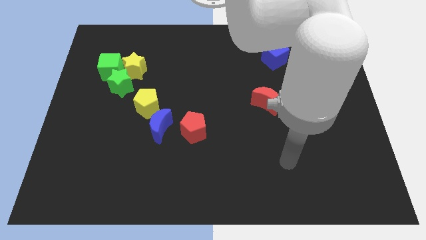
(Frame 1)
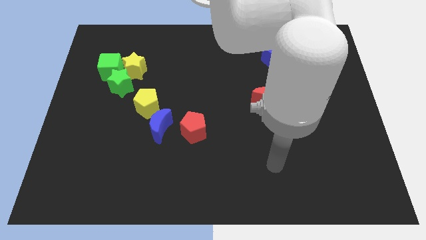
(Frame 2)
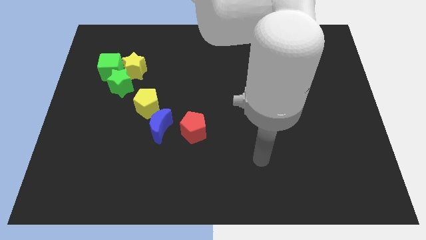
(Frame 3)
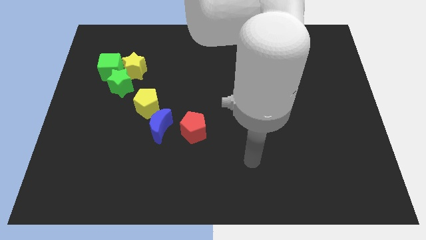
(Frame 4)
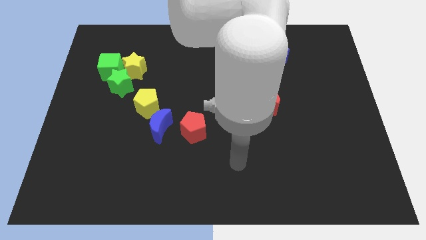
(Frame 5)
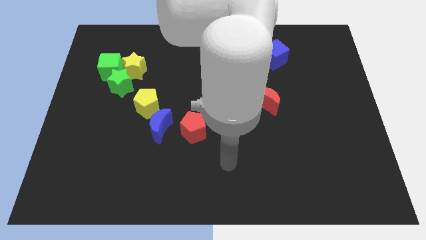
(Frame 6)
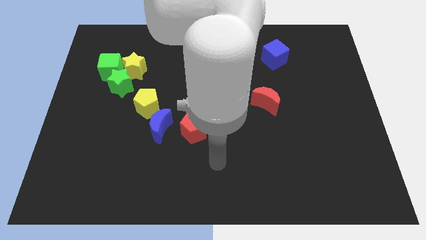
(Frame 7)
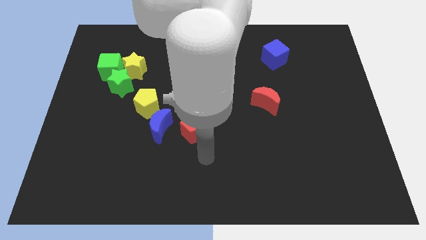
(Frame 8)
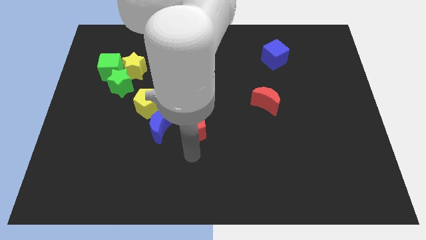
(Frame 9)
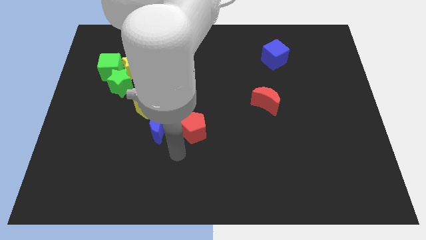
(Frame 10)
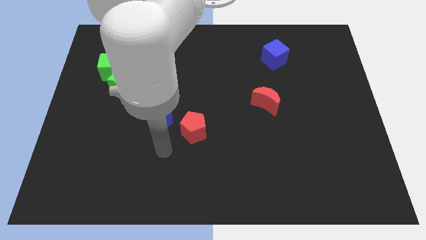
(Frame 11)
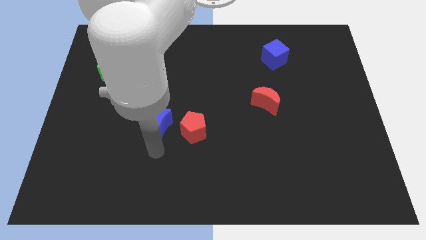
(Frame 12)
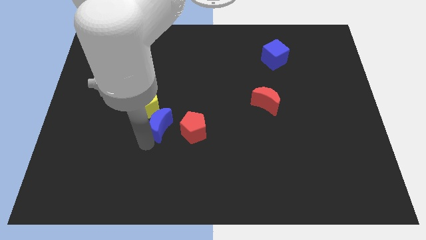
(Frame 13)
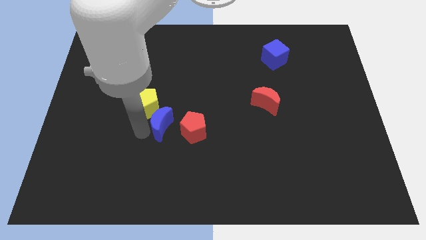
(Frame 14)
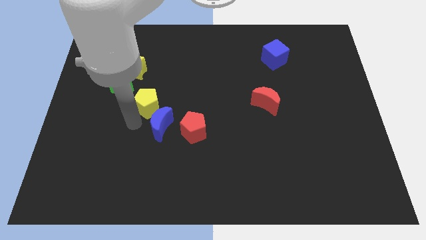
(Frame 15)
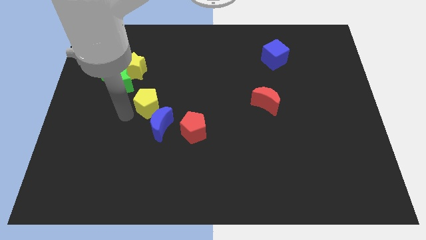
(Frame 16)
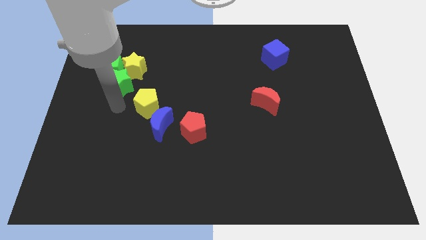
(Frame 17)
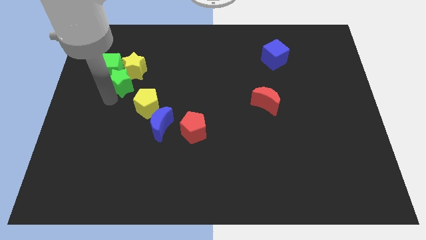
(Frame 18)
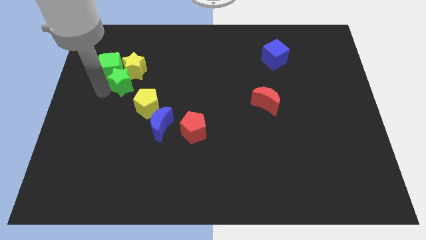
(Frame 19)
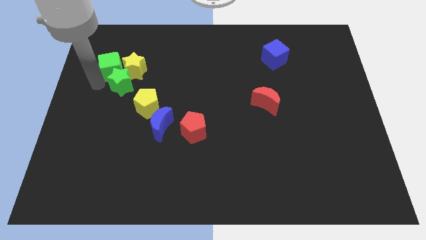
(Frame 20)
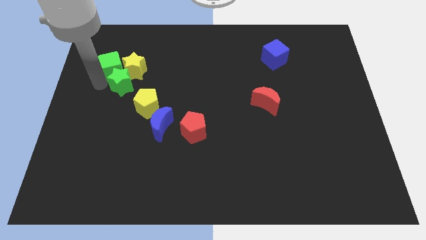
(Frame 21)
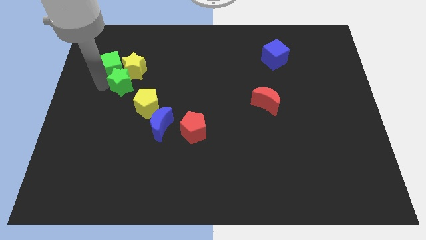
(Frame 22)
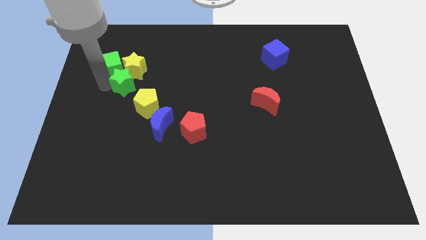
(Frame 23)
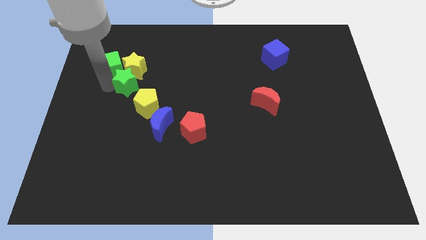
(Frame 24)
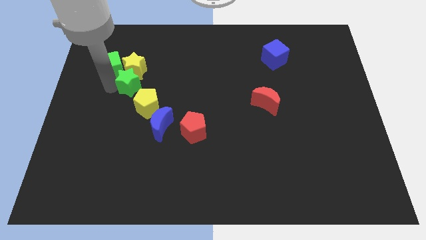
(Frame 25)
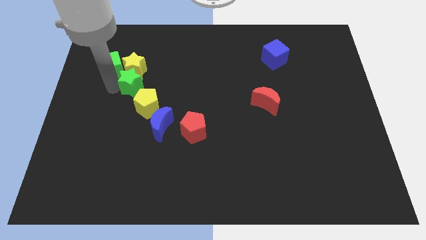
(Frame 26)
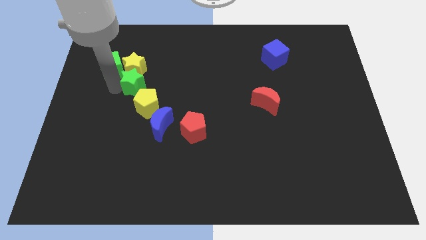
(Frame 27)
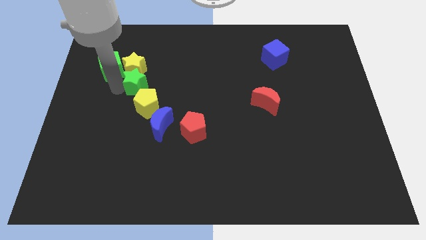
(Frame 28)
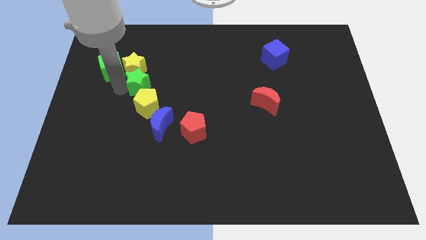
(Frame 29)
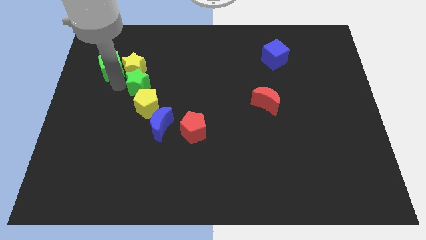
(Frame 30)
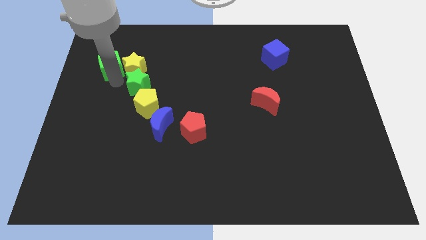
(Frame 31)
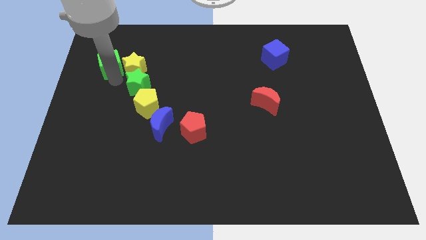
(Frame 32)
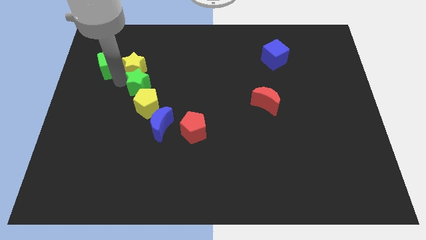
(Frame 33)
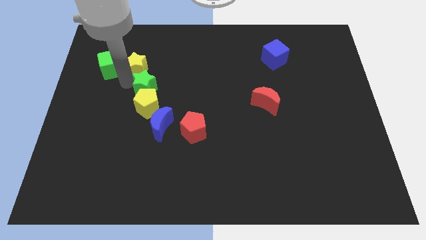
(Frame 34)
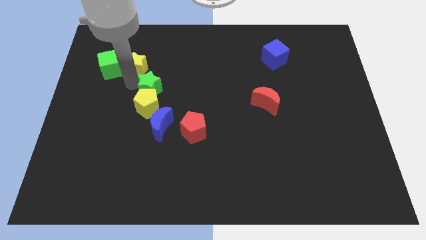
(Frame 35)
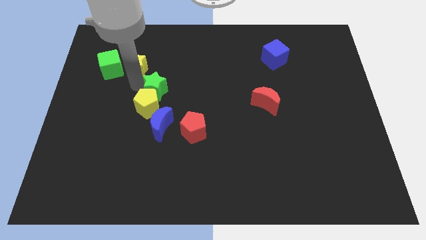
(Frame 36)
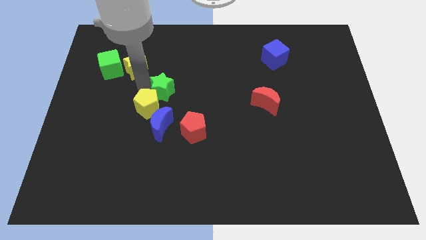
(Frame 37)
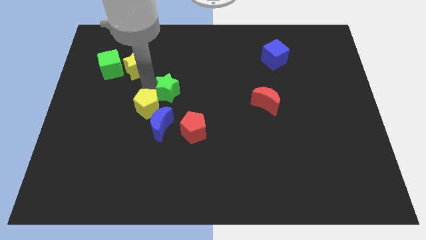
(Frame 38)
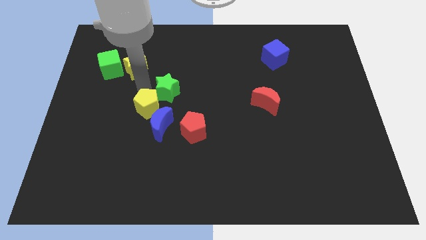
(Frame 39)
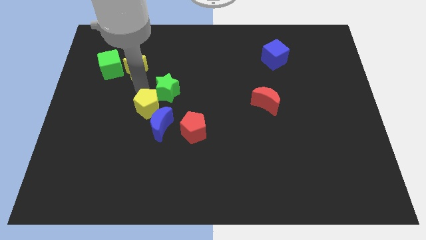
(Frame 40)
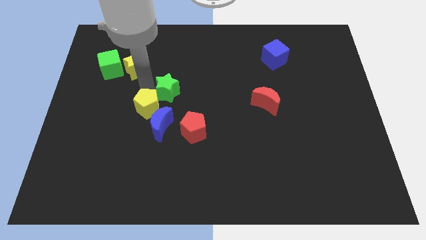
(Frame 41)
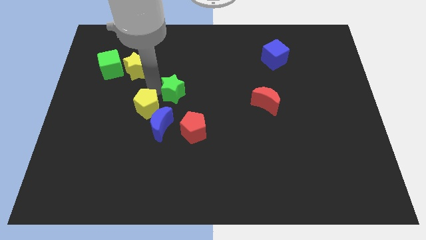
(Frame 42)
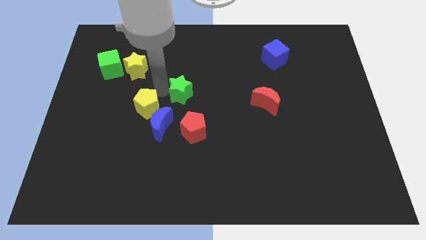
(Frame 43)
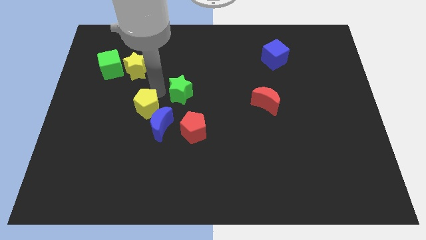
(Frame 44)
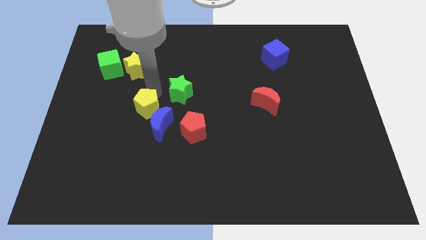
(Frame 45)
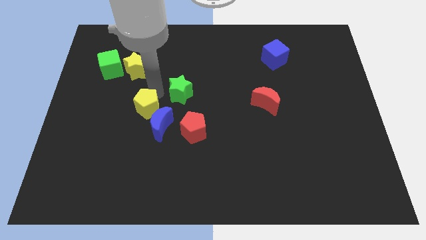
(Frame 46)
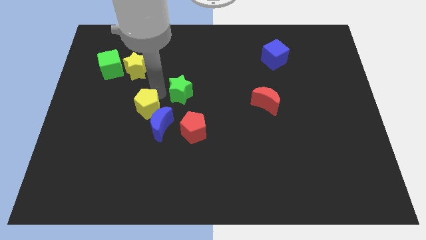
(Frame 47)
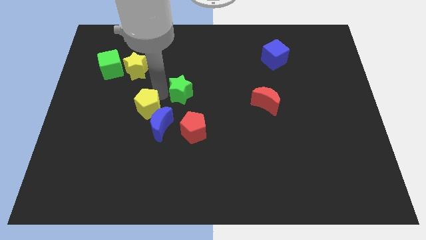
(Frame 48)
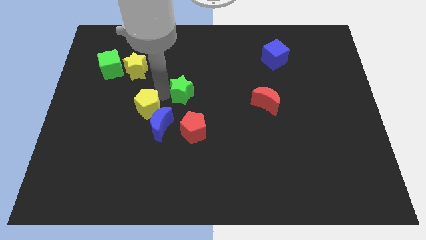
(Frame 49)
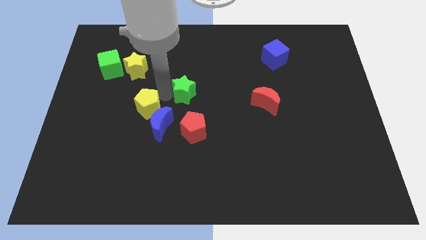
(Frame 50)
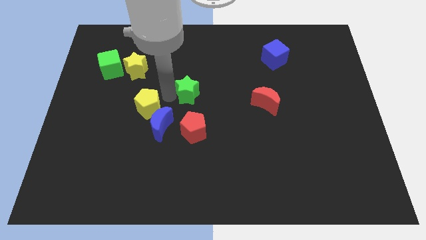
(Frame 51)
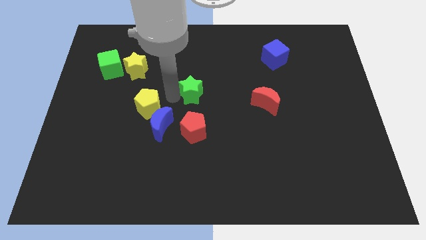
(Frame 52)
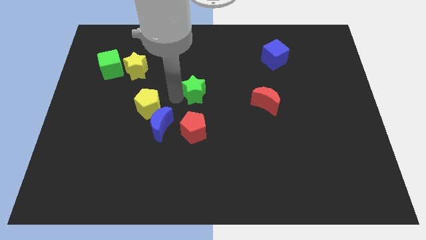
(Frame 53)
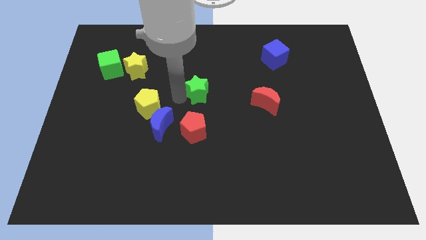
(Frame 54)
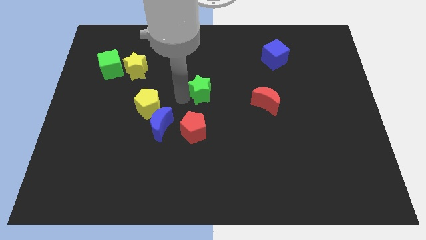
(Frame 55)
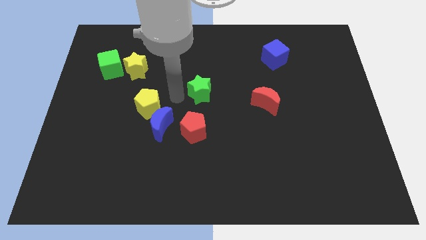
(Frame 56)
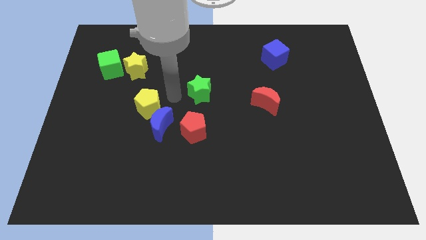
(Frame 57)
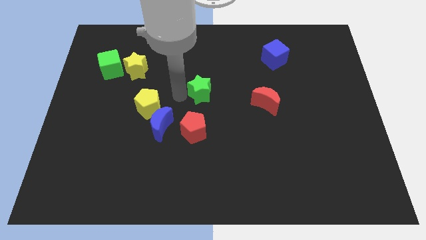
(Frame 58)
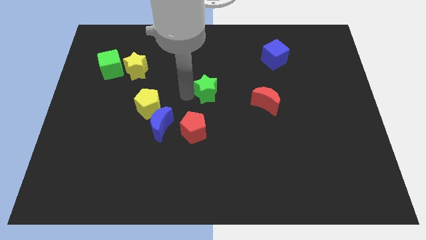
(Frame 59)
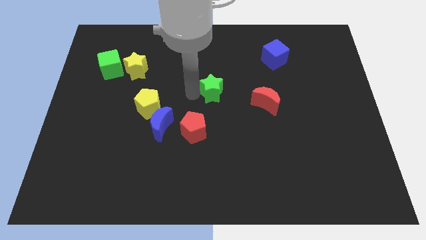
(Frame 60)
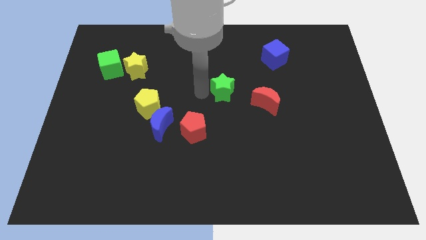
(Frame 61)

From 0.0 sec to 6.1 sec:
push the green star to the top left side of the red moon

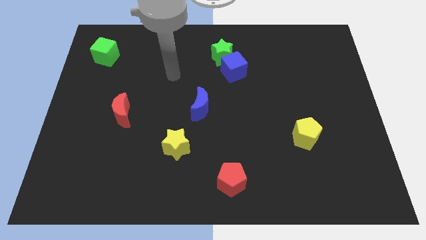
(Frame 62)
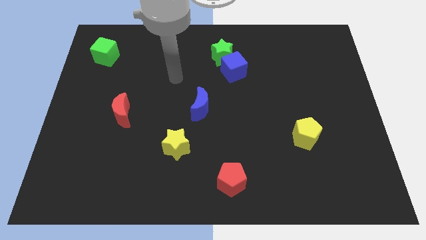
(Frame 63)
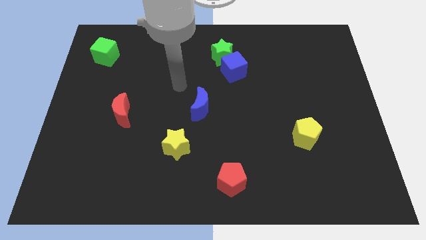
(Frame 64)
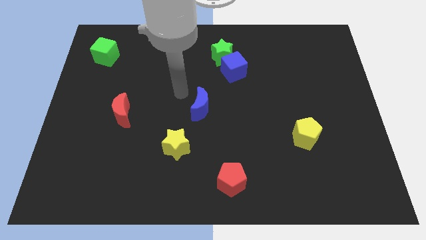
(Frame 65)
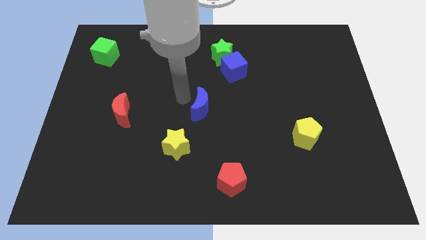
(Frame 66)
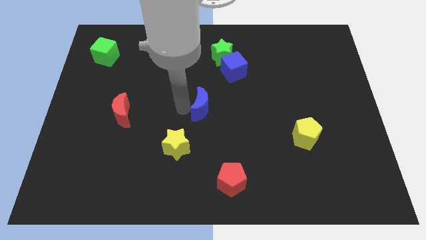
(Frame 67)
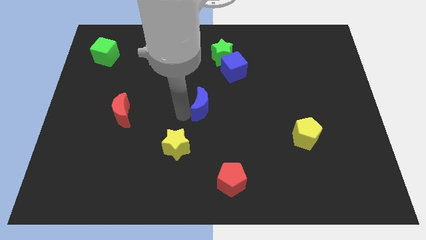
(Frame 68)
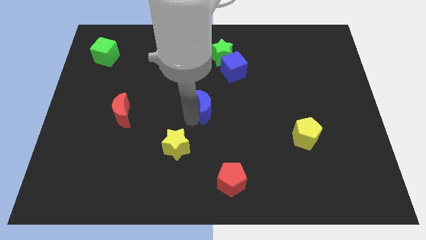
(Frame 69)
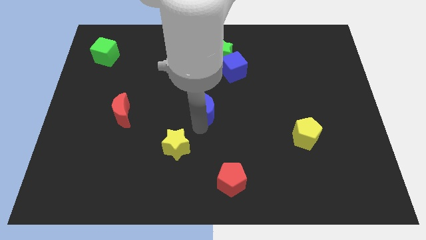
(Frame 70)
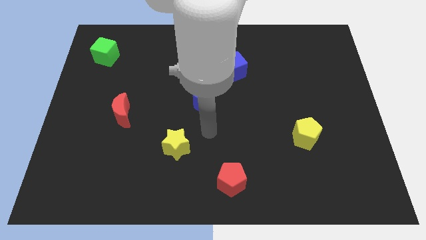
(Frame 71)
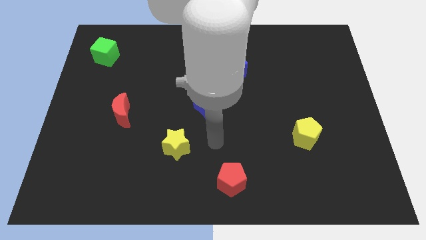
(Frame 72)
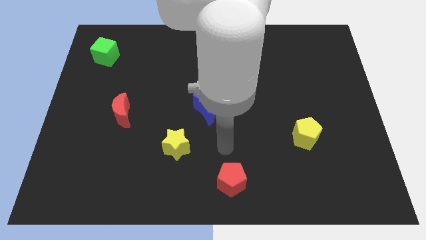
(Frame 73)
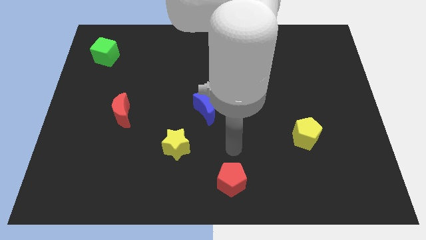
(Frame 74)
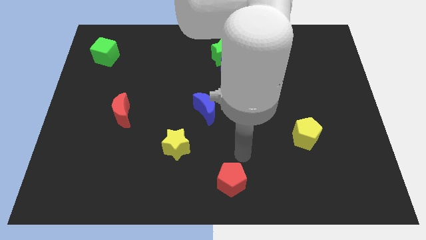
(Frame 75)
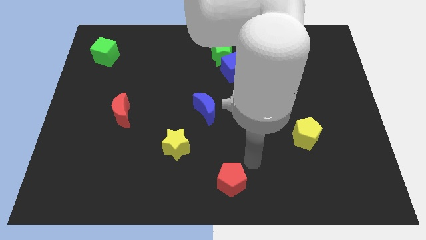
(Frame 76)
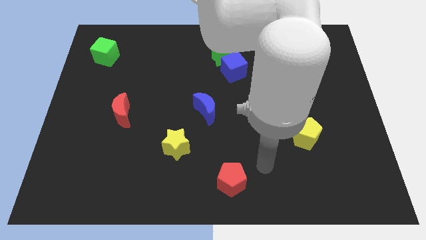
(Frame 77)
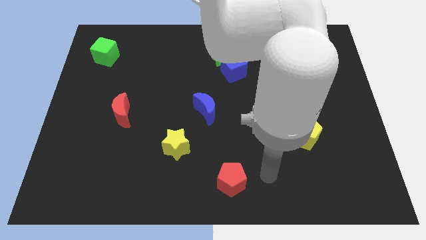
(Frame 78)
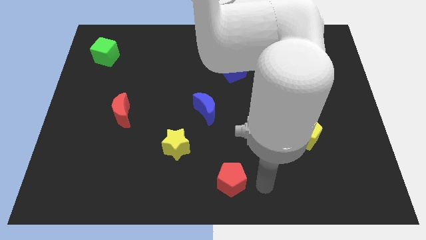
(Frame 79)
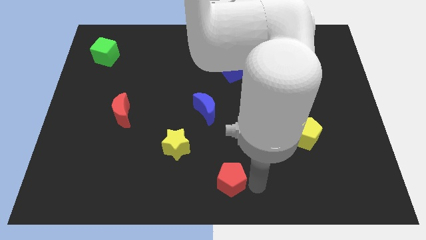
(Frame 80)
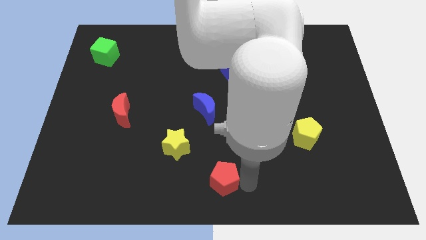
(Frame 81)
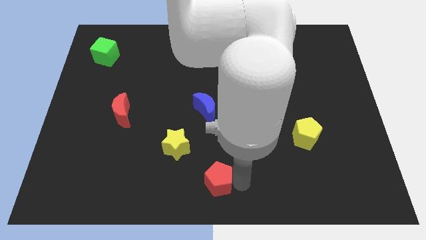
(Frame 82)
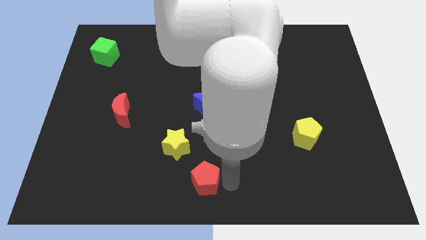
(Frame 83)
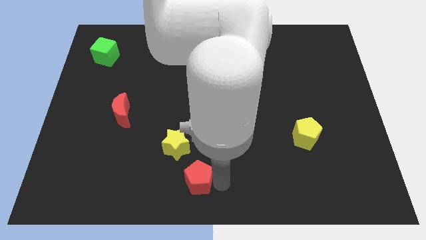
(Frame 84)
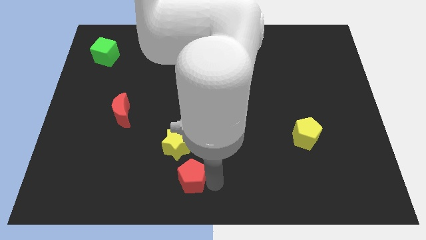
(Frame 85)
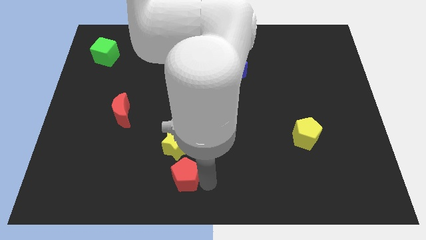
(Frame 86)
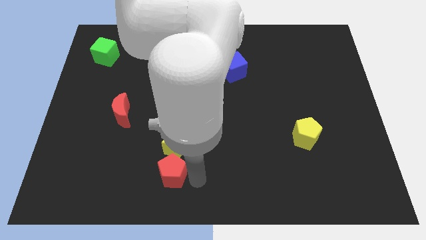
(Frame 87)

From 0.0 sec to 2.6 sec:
push the red pentagon diagonally down and to the left of the yellow star
